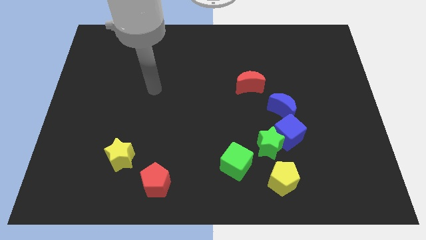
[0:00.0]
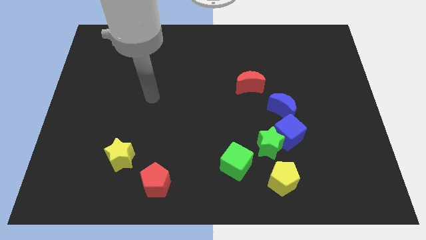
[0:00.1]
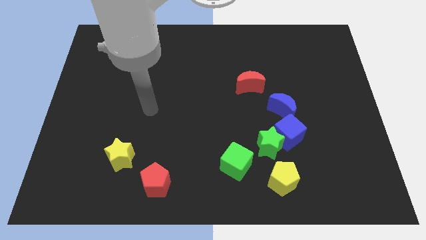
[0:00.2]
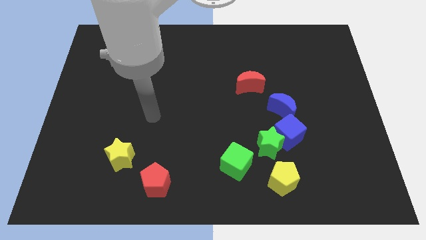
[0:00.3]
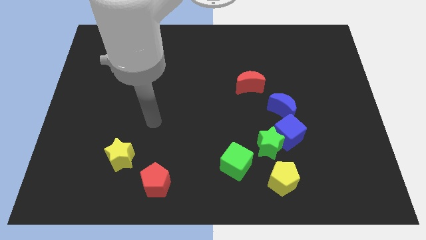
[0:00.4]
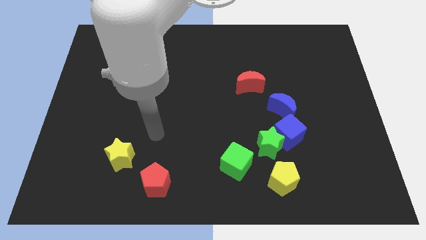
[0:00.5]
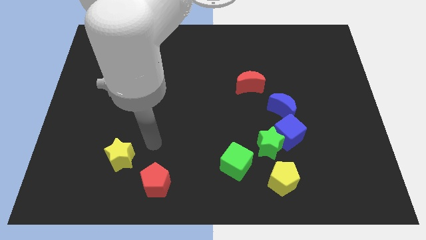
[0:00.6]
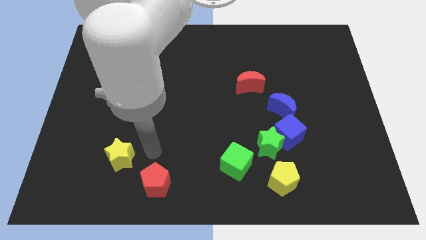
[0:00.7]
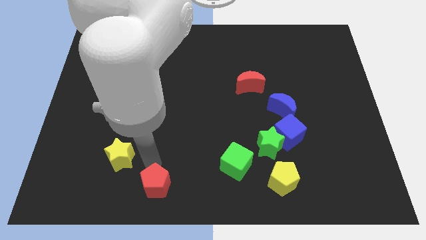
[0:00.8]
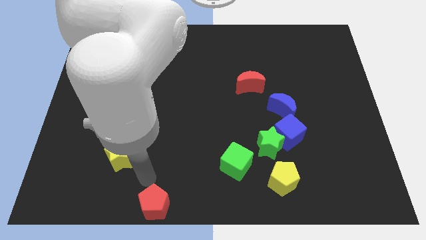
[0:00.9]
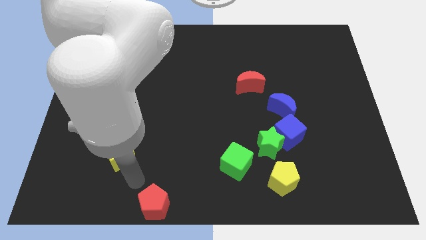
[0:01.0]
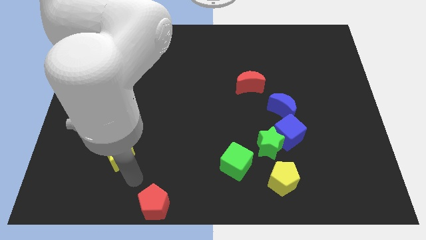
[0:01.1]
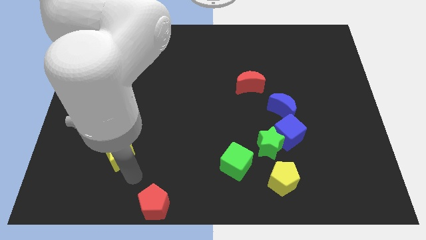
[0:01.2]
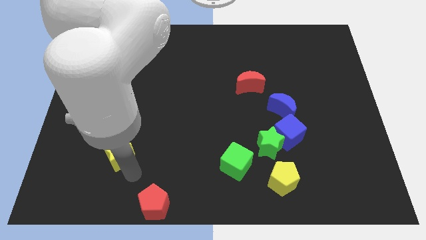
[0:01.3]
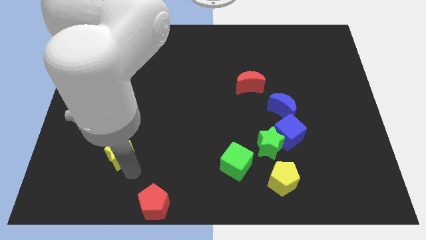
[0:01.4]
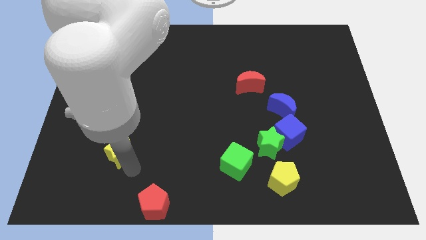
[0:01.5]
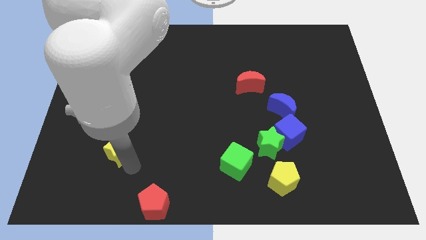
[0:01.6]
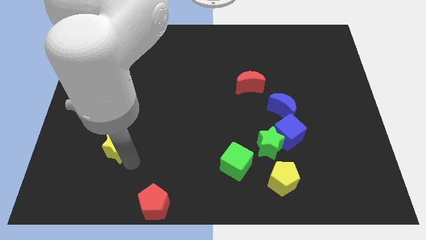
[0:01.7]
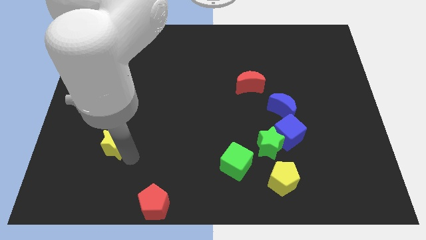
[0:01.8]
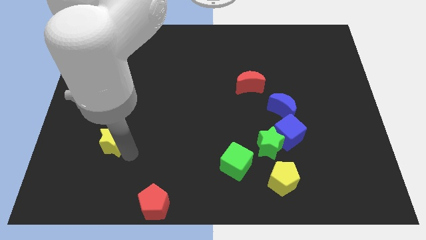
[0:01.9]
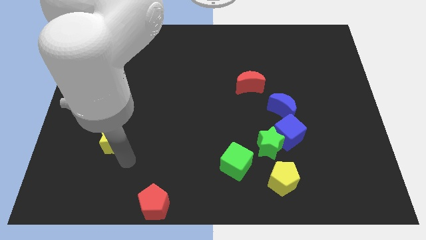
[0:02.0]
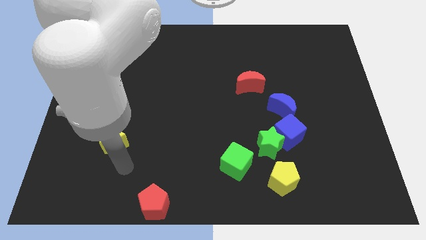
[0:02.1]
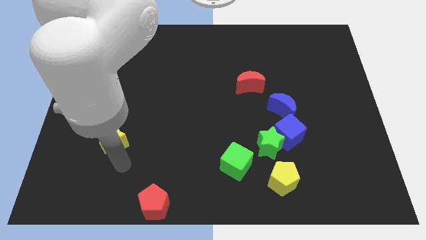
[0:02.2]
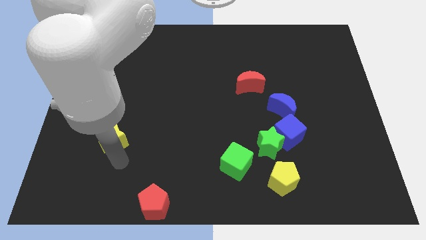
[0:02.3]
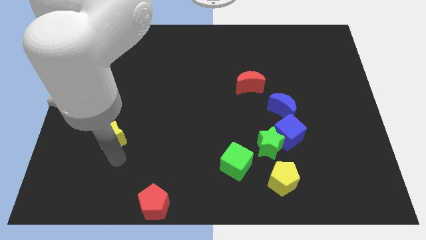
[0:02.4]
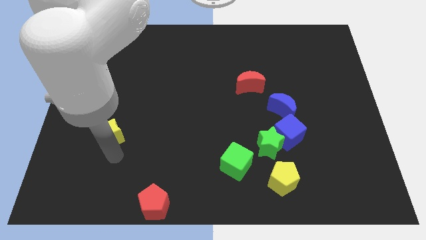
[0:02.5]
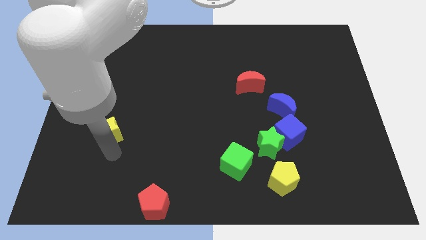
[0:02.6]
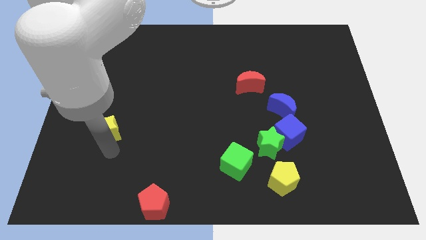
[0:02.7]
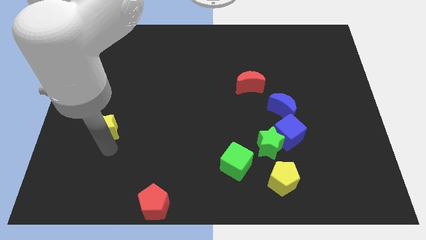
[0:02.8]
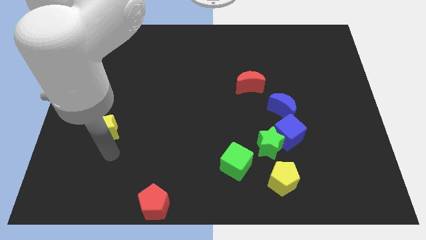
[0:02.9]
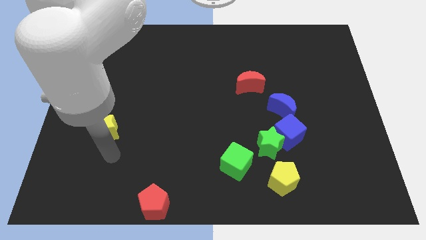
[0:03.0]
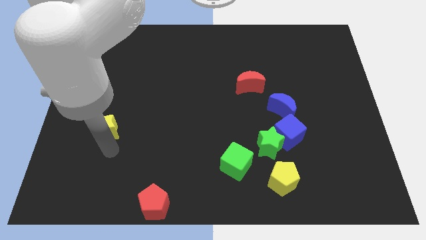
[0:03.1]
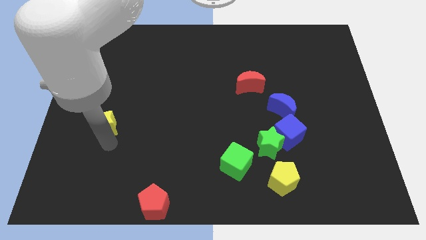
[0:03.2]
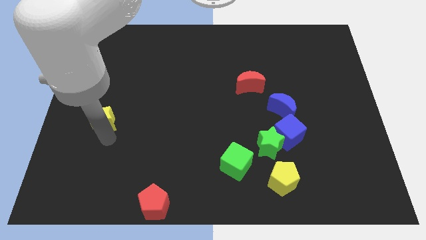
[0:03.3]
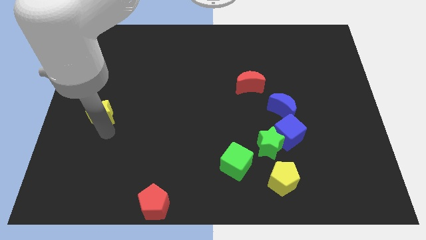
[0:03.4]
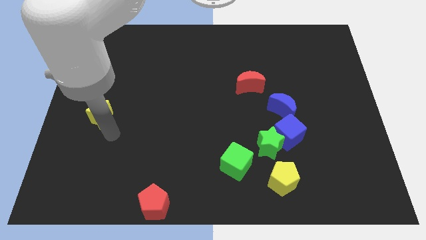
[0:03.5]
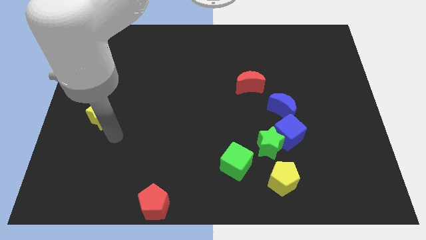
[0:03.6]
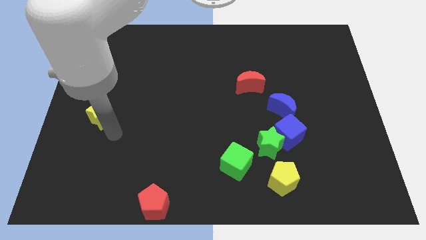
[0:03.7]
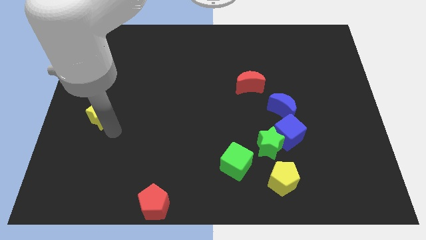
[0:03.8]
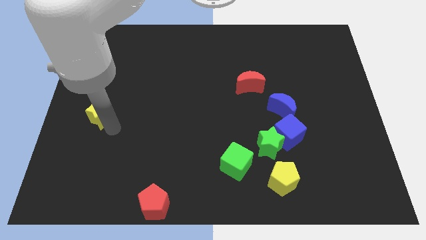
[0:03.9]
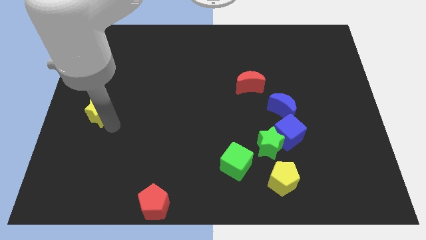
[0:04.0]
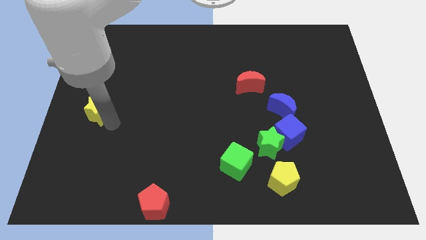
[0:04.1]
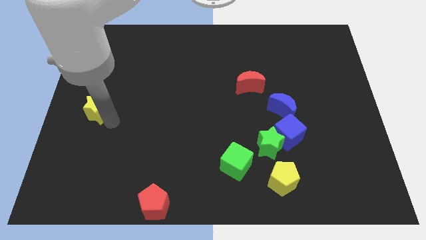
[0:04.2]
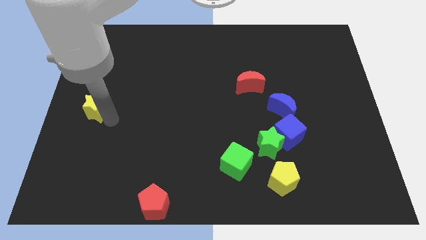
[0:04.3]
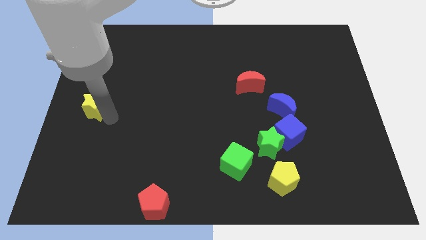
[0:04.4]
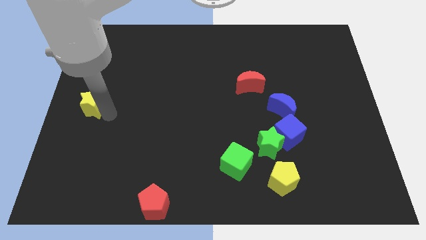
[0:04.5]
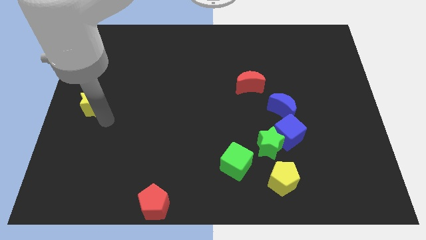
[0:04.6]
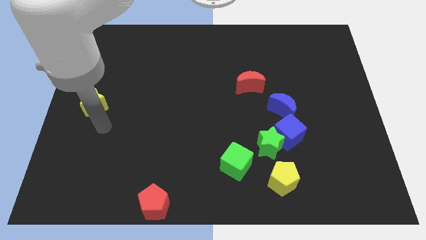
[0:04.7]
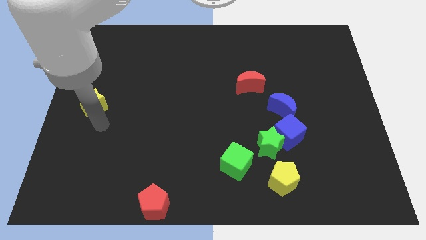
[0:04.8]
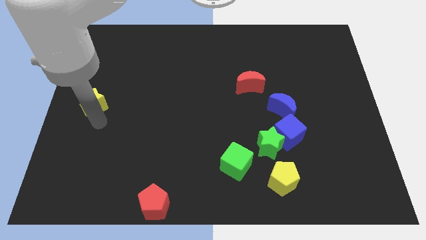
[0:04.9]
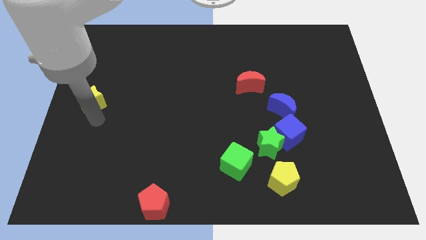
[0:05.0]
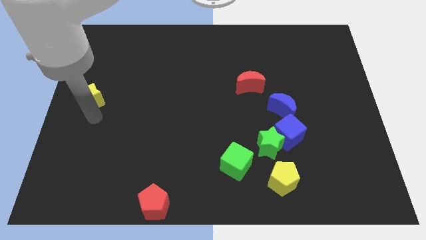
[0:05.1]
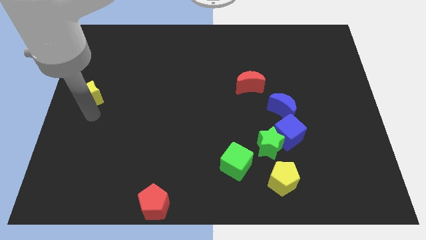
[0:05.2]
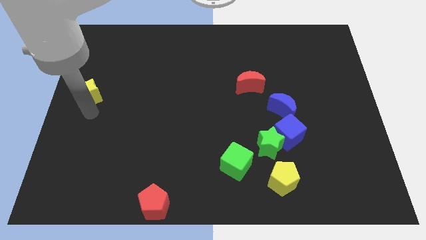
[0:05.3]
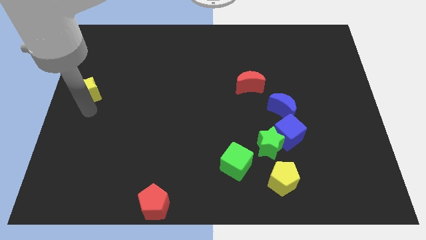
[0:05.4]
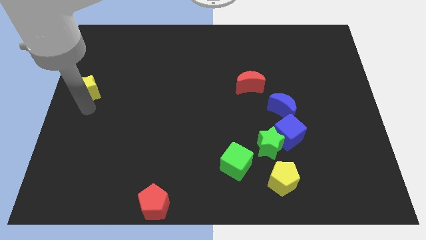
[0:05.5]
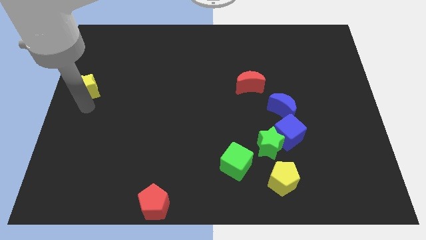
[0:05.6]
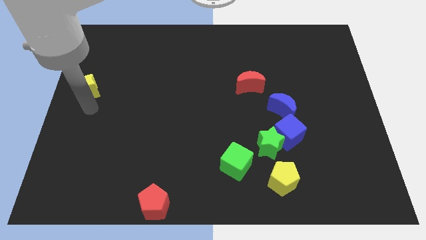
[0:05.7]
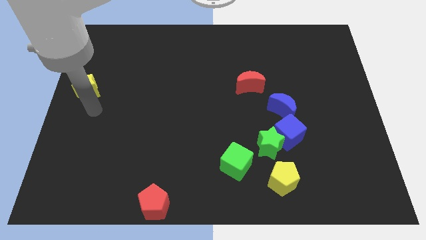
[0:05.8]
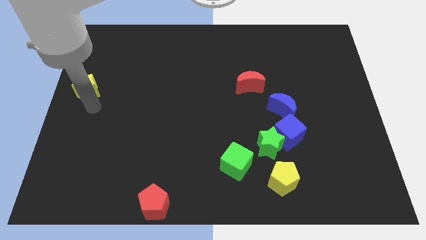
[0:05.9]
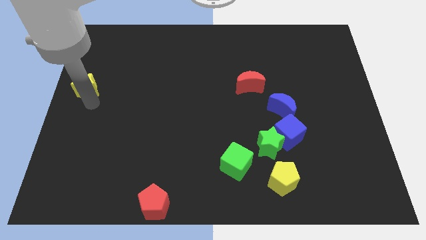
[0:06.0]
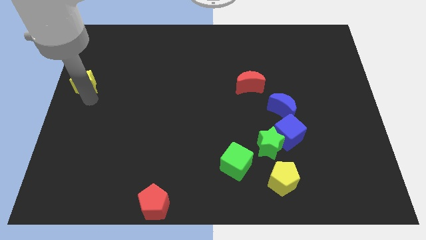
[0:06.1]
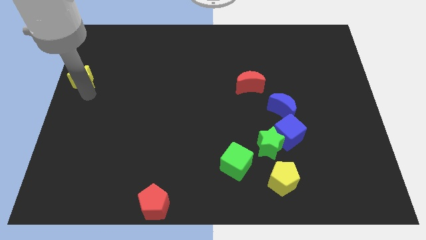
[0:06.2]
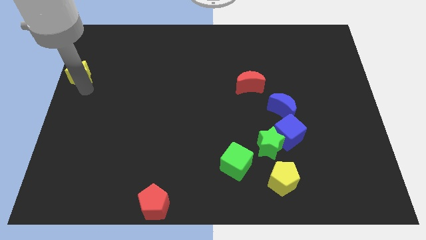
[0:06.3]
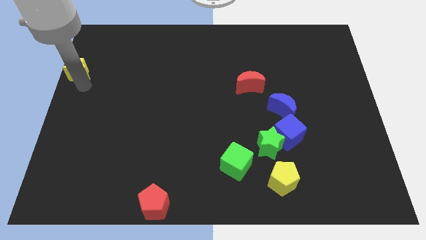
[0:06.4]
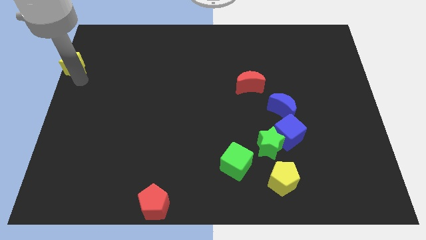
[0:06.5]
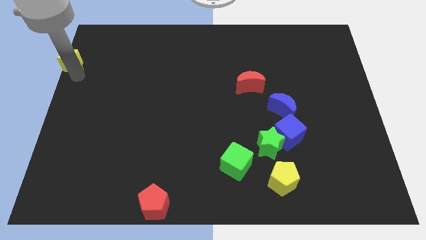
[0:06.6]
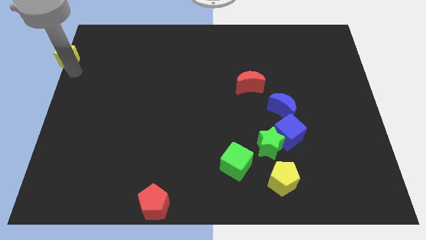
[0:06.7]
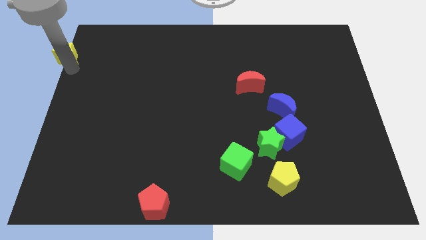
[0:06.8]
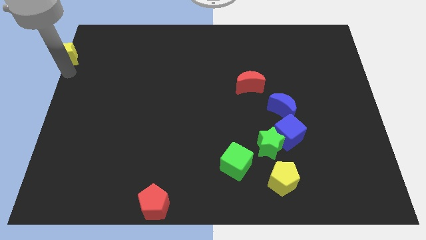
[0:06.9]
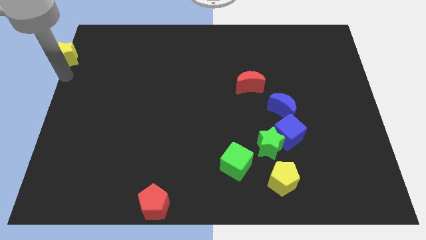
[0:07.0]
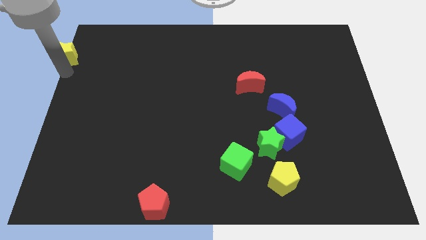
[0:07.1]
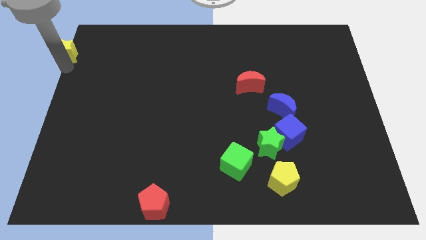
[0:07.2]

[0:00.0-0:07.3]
slide the yellow star to the upper left corner
